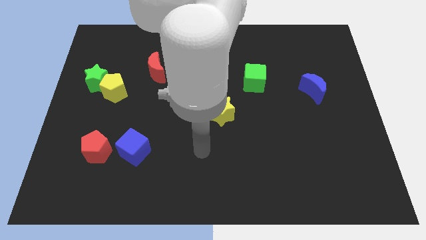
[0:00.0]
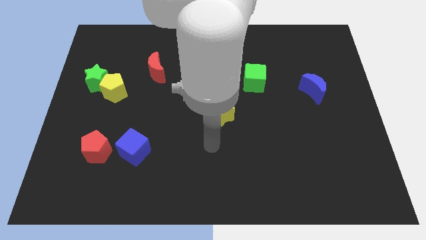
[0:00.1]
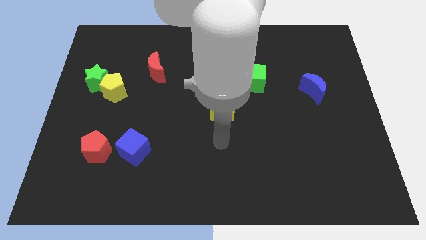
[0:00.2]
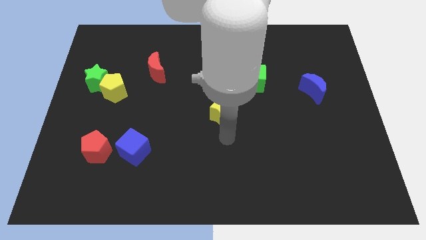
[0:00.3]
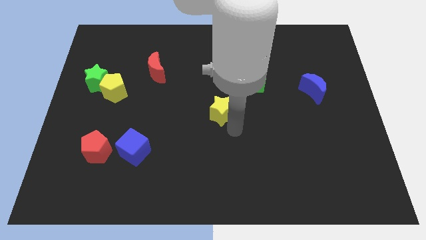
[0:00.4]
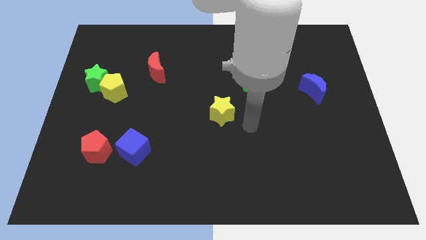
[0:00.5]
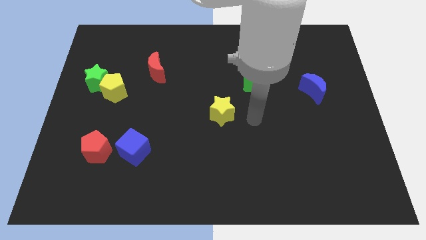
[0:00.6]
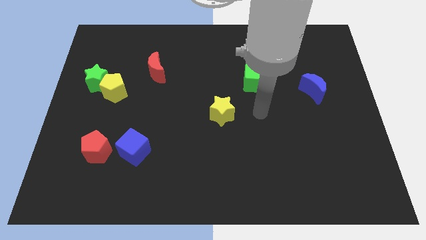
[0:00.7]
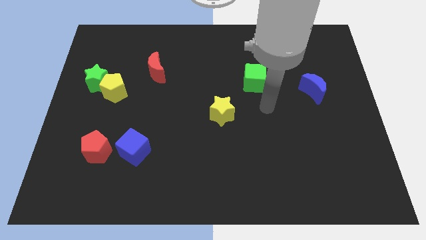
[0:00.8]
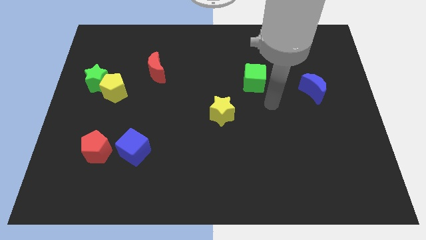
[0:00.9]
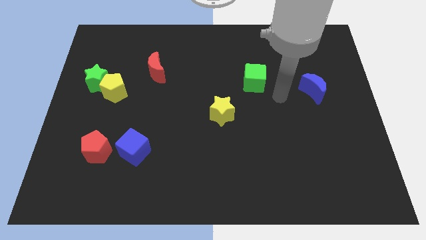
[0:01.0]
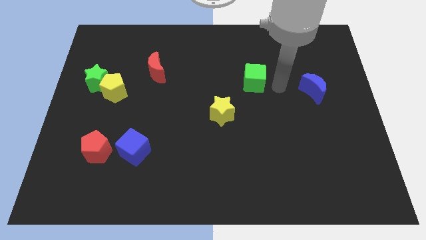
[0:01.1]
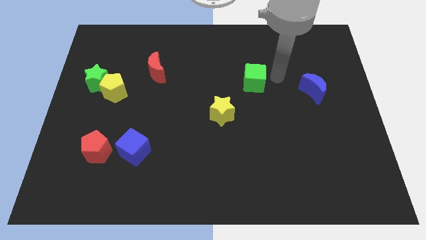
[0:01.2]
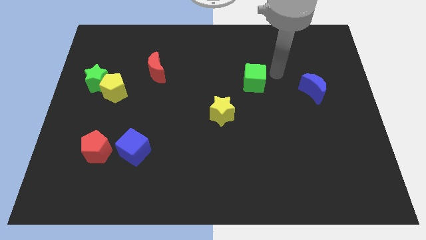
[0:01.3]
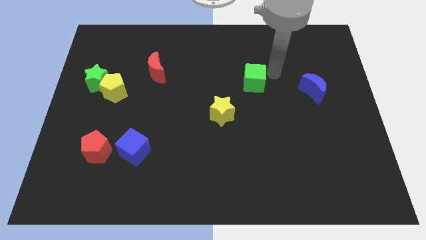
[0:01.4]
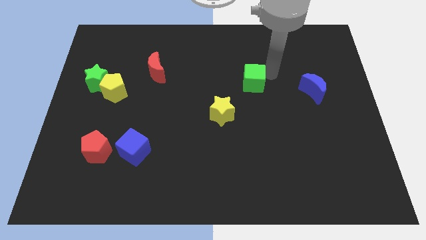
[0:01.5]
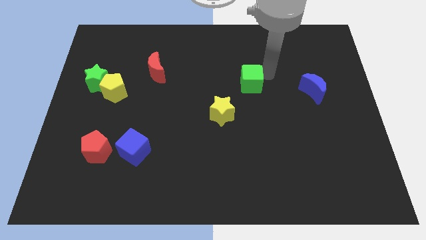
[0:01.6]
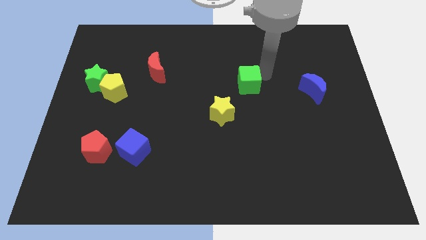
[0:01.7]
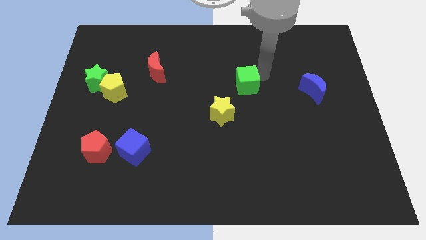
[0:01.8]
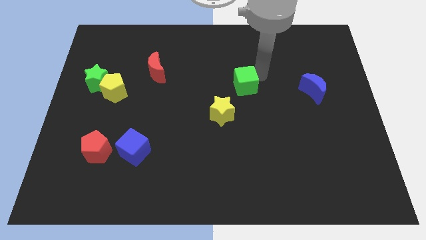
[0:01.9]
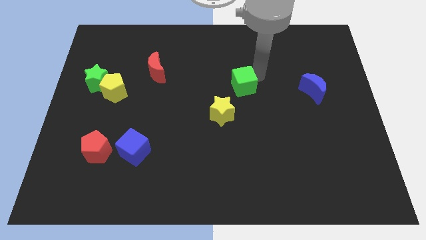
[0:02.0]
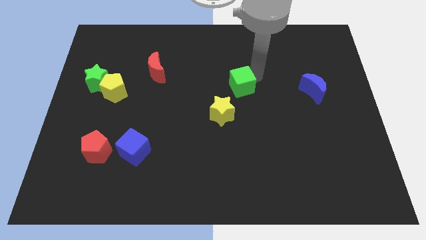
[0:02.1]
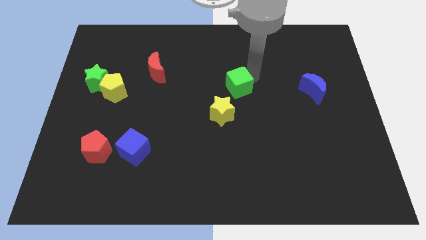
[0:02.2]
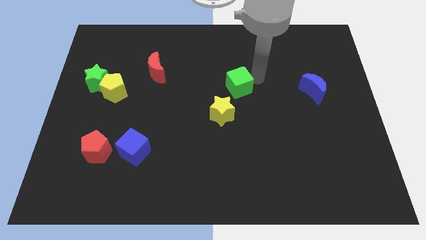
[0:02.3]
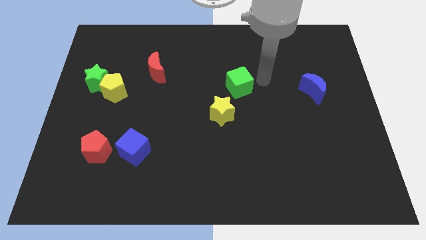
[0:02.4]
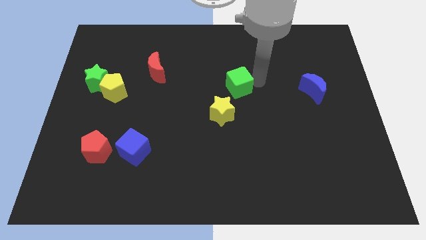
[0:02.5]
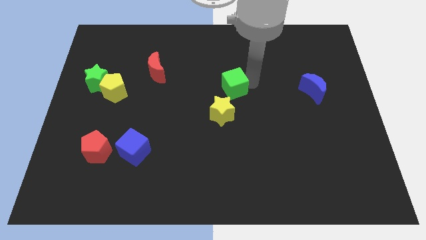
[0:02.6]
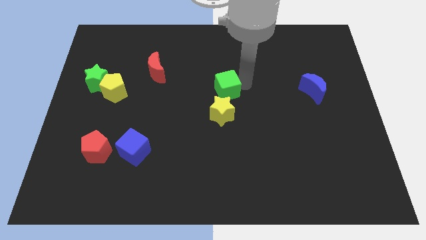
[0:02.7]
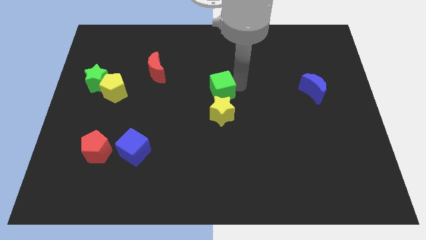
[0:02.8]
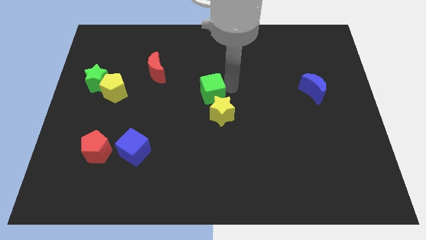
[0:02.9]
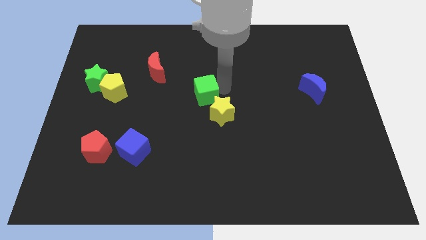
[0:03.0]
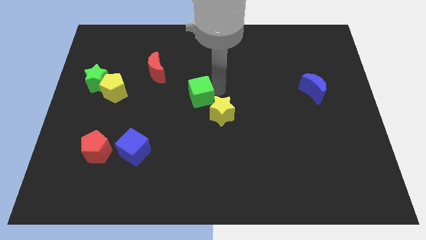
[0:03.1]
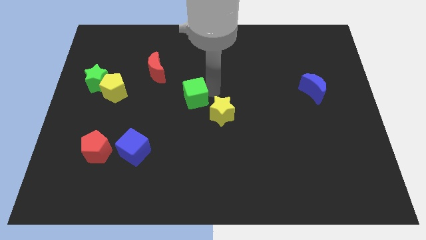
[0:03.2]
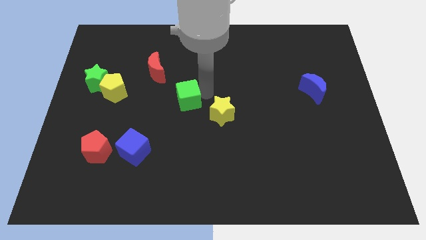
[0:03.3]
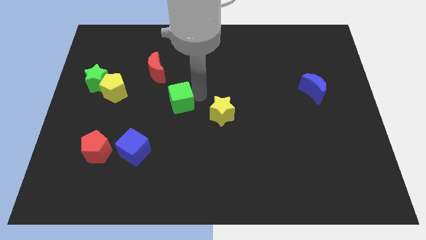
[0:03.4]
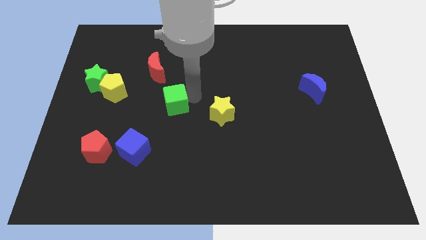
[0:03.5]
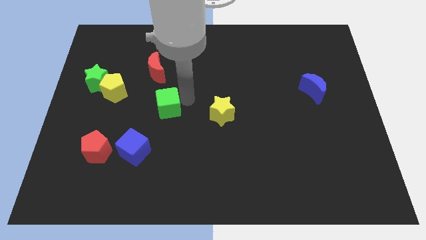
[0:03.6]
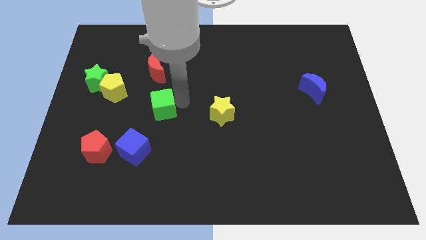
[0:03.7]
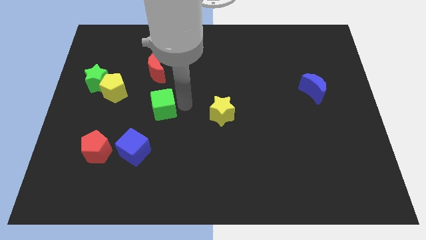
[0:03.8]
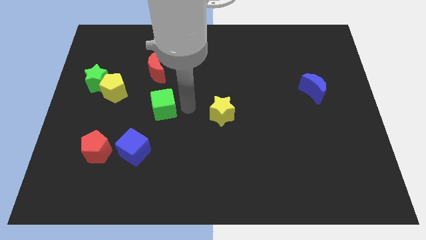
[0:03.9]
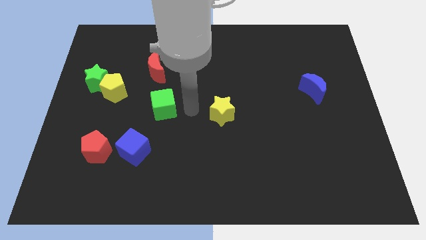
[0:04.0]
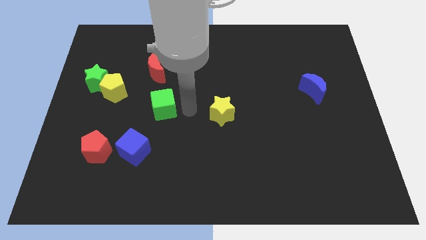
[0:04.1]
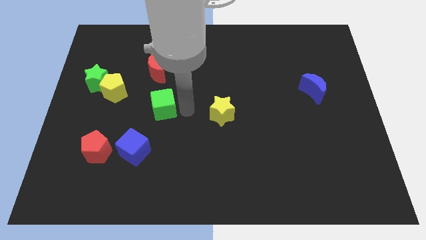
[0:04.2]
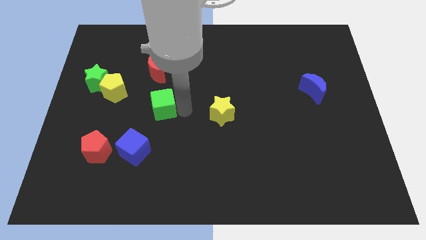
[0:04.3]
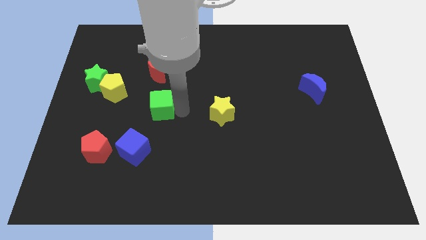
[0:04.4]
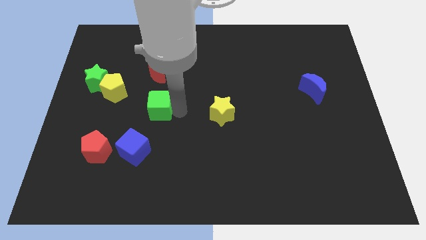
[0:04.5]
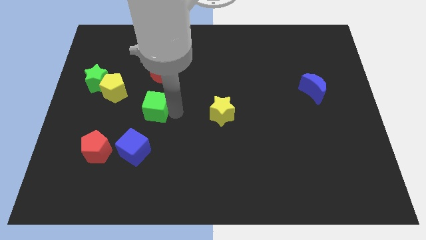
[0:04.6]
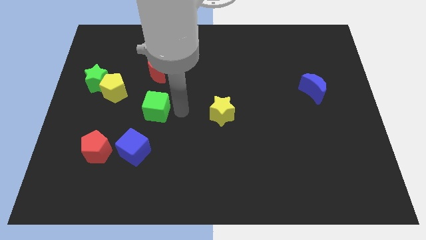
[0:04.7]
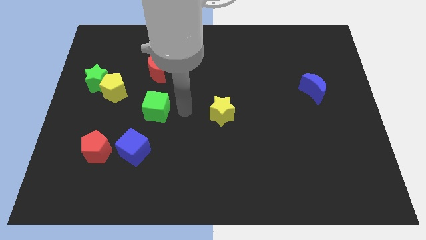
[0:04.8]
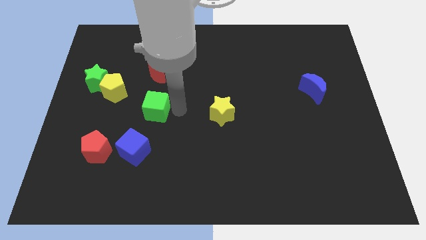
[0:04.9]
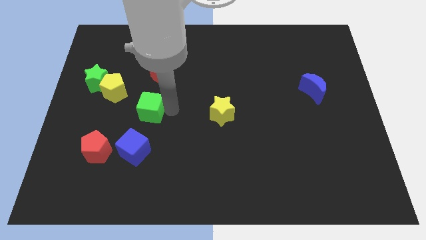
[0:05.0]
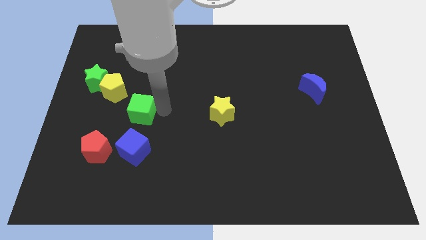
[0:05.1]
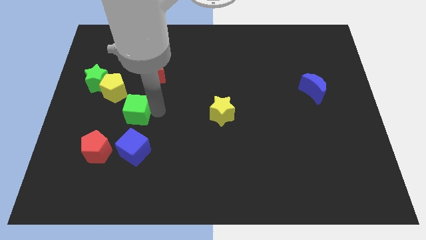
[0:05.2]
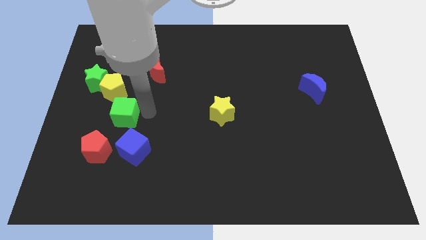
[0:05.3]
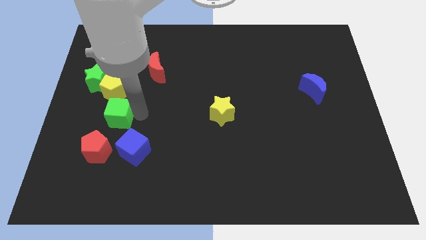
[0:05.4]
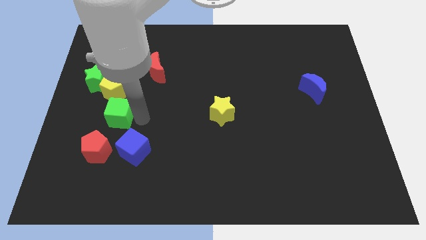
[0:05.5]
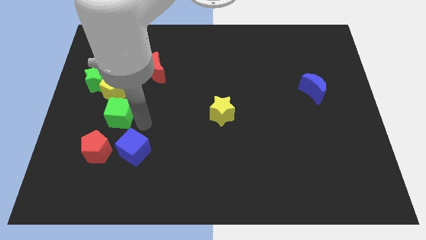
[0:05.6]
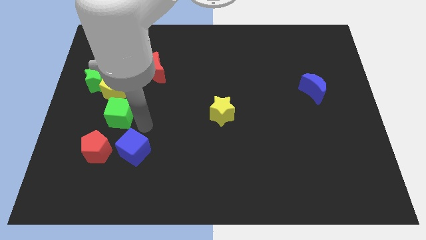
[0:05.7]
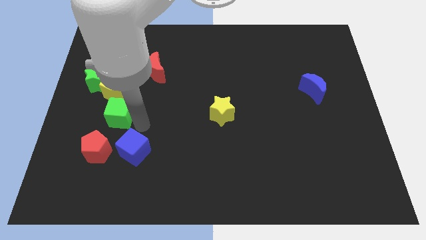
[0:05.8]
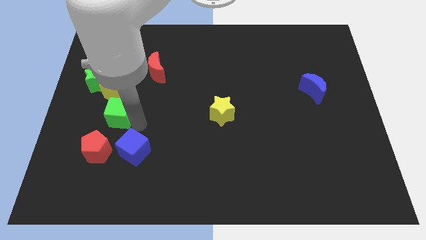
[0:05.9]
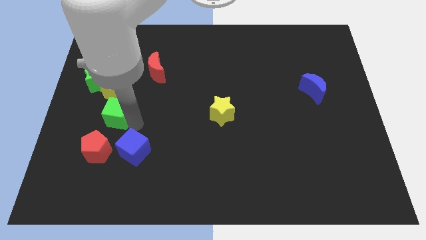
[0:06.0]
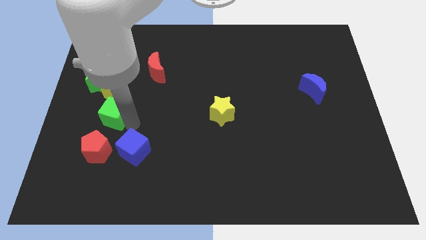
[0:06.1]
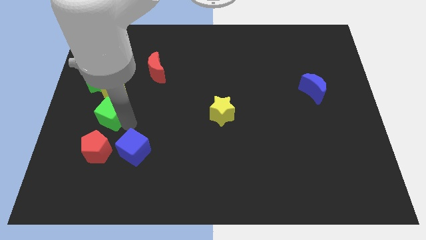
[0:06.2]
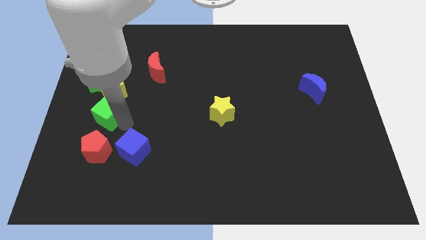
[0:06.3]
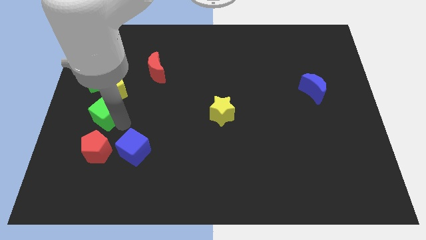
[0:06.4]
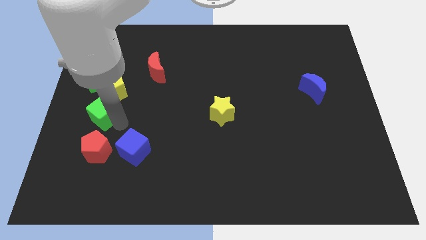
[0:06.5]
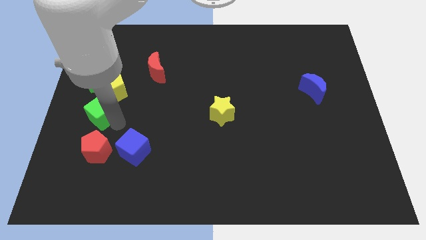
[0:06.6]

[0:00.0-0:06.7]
push the green cube to the left side
